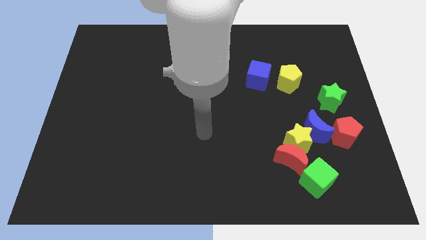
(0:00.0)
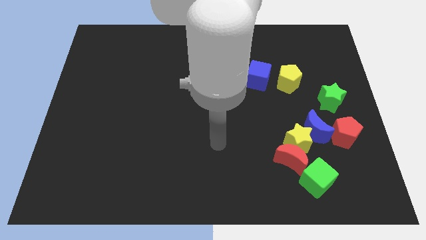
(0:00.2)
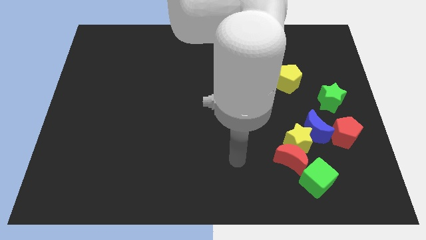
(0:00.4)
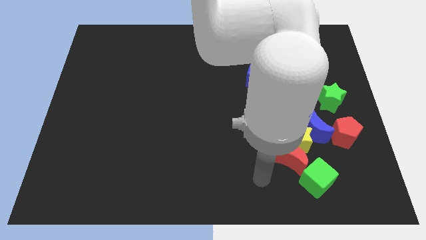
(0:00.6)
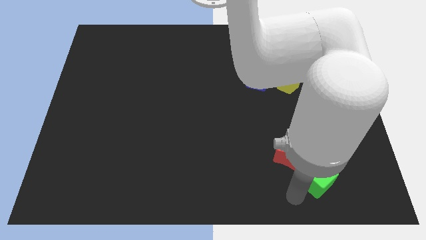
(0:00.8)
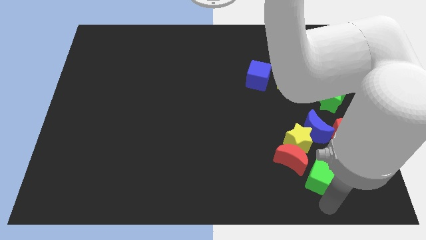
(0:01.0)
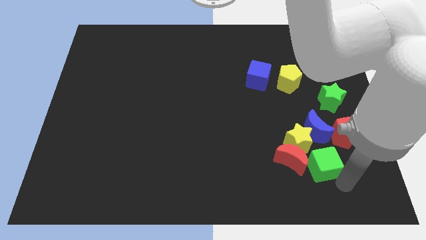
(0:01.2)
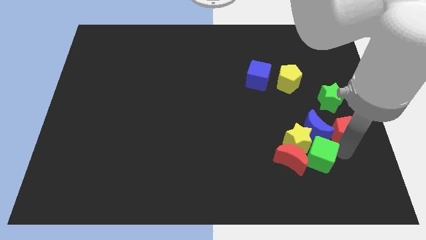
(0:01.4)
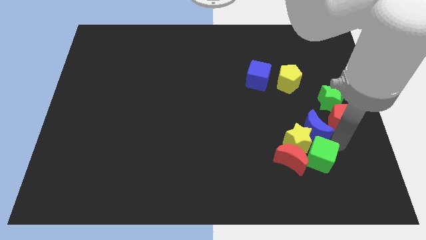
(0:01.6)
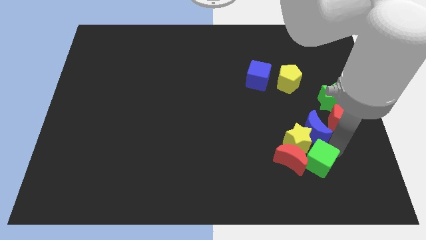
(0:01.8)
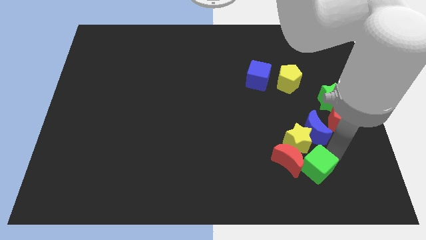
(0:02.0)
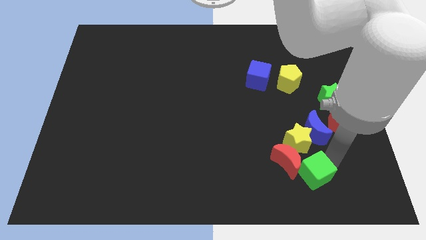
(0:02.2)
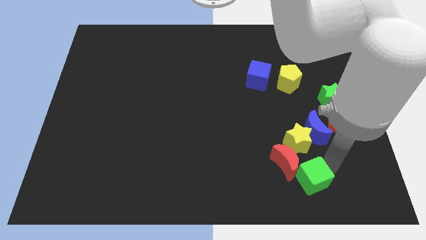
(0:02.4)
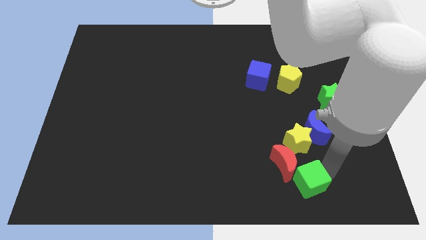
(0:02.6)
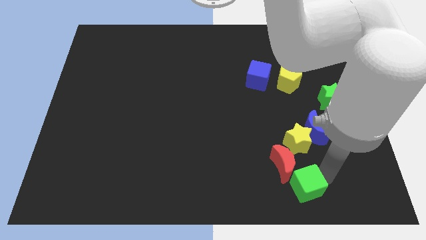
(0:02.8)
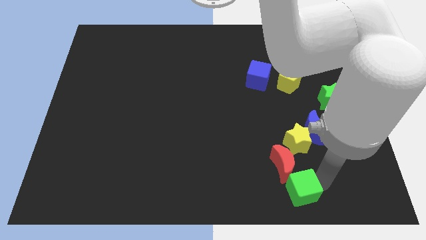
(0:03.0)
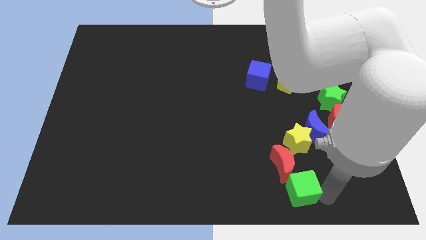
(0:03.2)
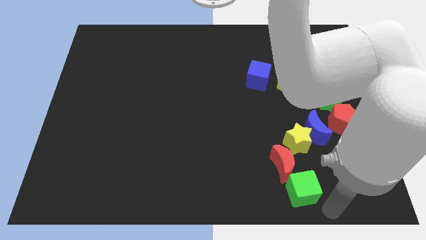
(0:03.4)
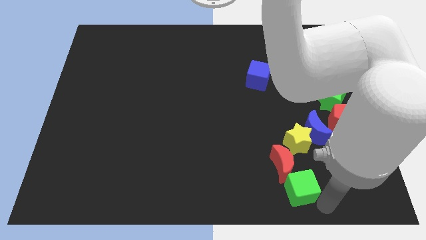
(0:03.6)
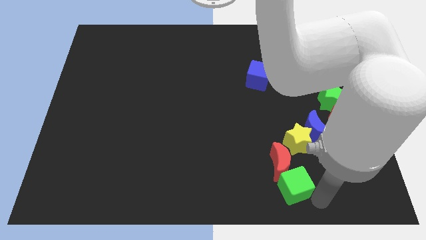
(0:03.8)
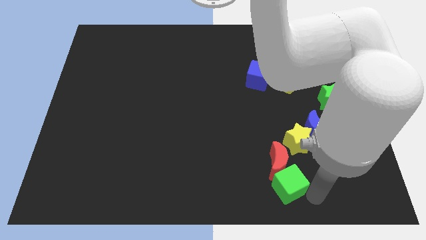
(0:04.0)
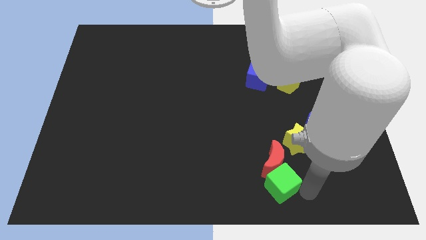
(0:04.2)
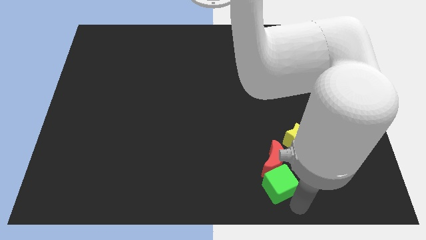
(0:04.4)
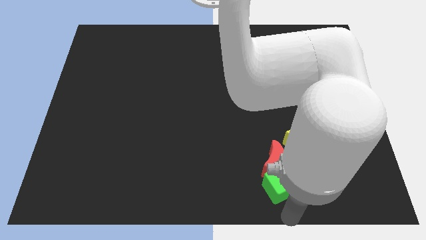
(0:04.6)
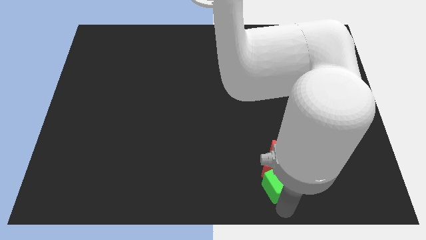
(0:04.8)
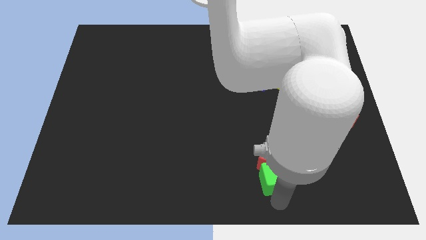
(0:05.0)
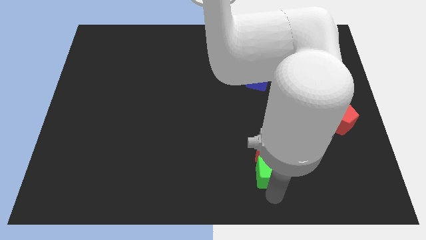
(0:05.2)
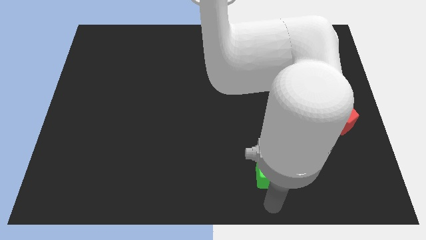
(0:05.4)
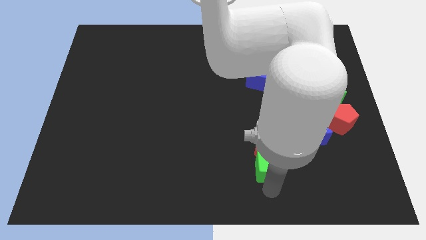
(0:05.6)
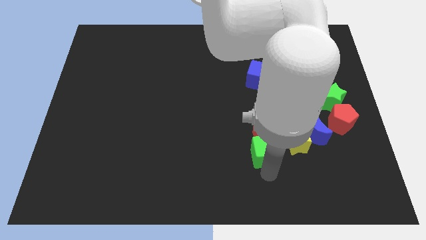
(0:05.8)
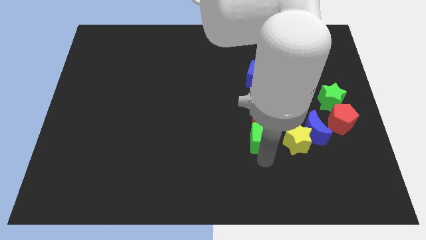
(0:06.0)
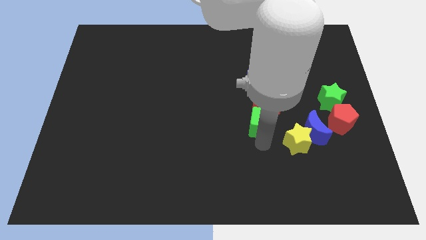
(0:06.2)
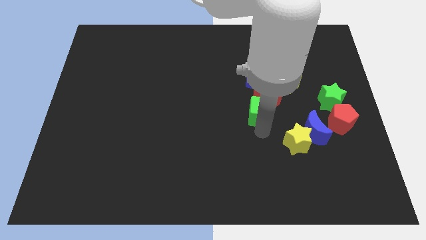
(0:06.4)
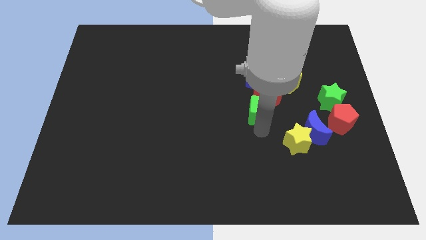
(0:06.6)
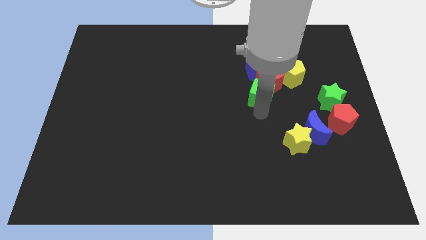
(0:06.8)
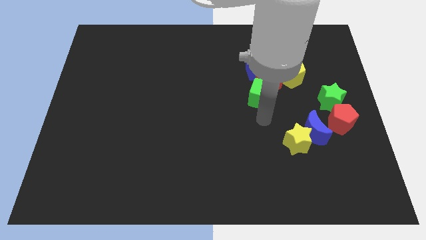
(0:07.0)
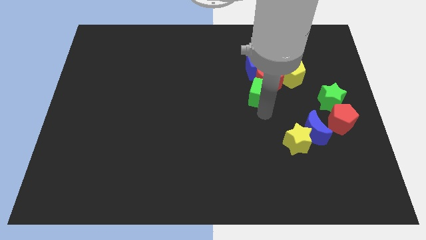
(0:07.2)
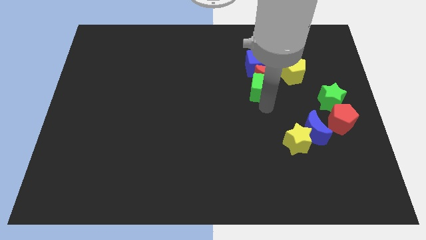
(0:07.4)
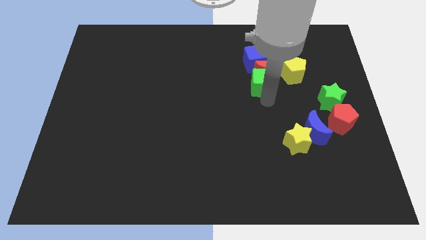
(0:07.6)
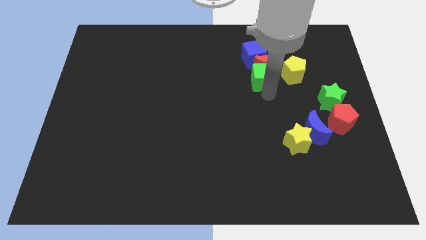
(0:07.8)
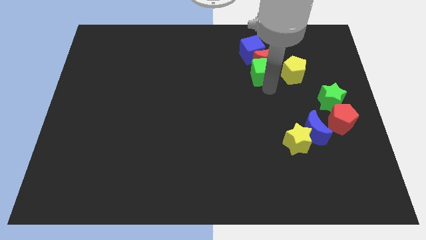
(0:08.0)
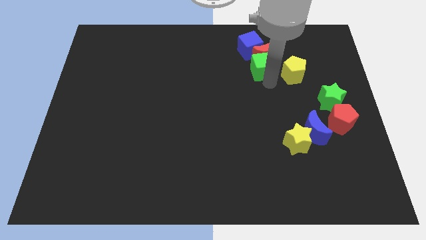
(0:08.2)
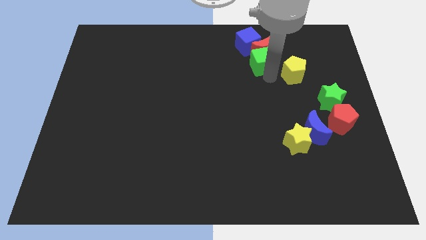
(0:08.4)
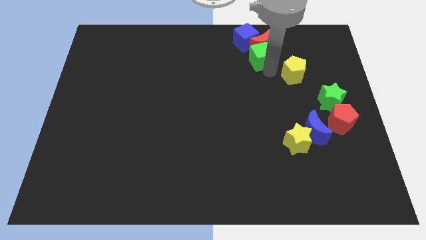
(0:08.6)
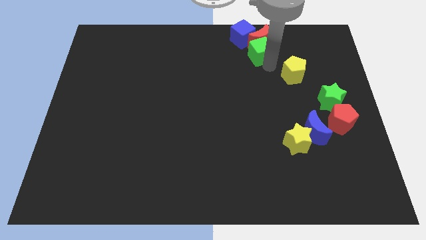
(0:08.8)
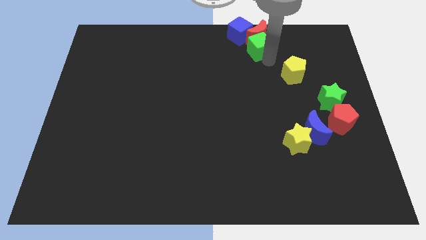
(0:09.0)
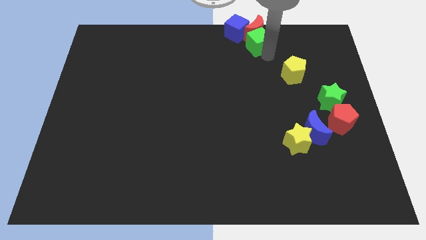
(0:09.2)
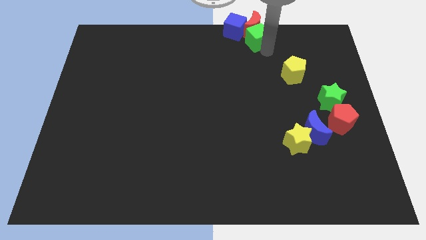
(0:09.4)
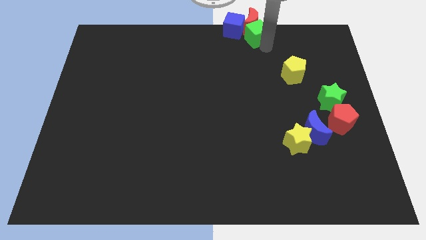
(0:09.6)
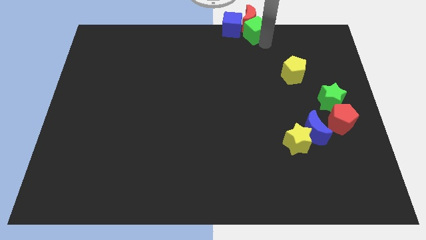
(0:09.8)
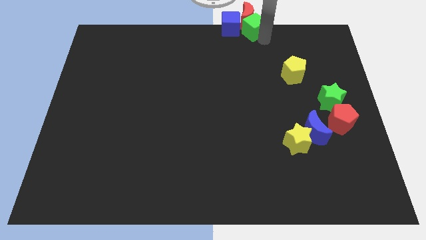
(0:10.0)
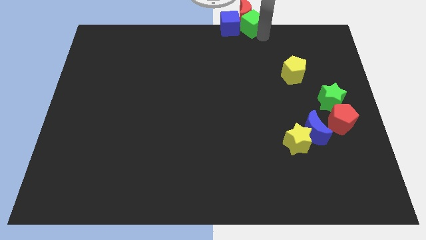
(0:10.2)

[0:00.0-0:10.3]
move the green cube to the blue cube

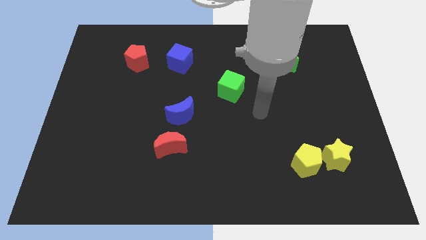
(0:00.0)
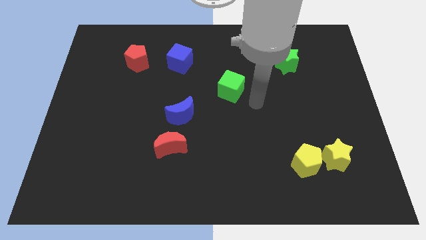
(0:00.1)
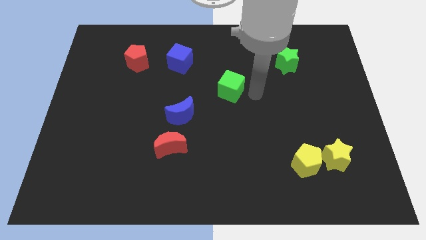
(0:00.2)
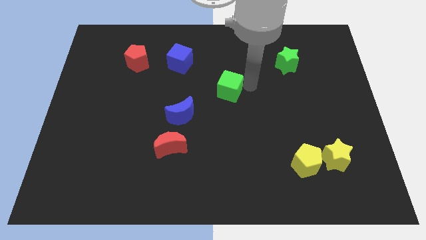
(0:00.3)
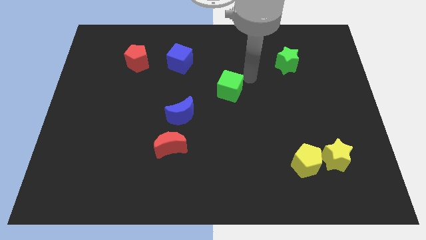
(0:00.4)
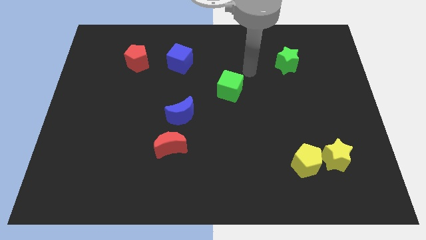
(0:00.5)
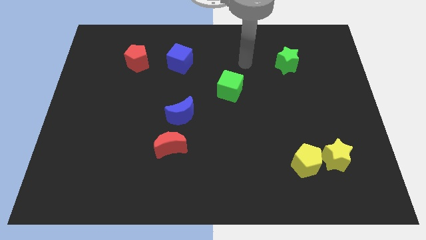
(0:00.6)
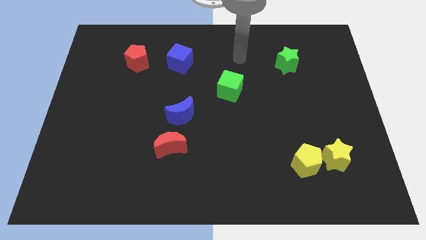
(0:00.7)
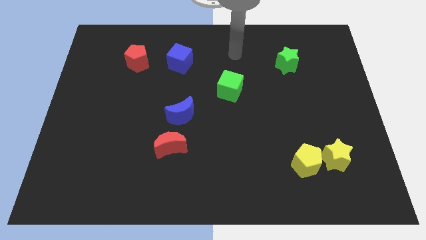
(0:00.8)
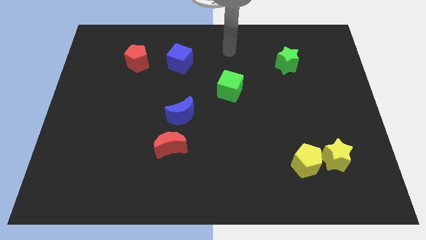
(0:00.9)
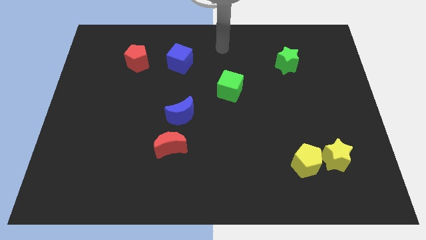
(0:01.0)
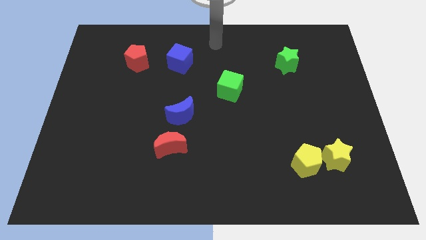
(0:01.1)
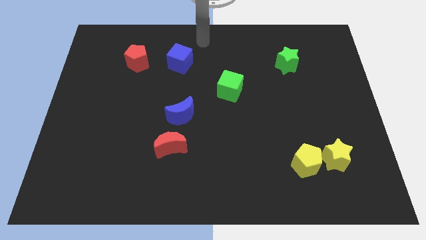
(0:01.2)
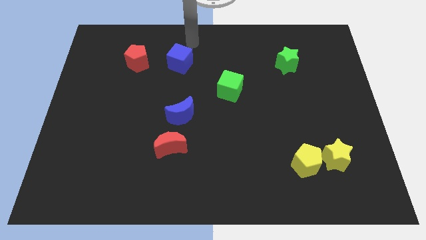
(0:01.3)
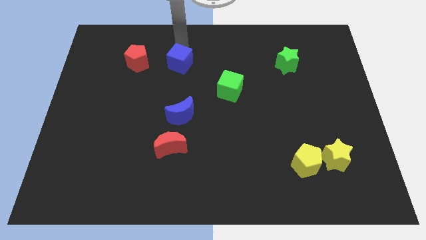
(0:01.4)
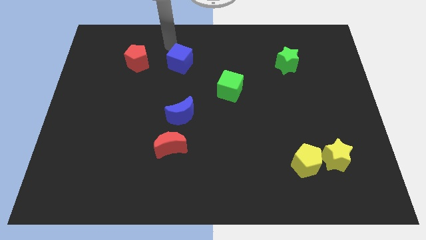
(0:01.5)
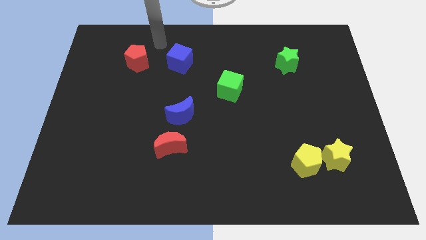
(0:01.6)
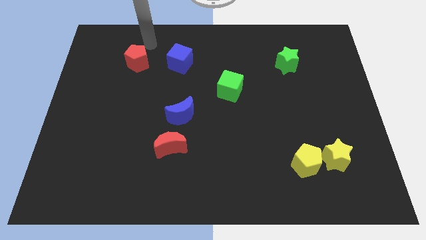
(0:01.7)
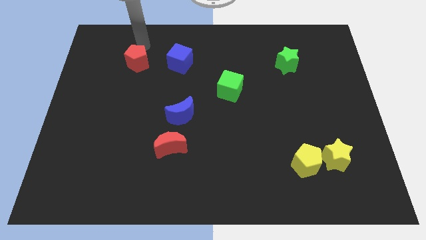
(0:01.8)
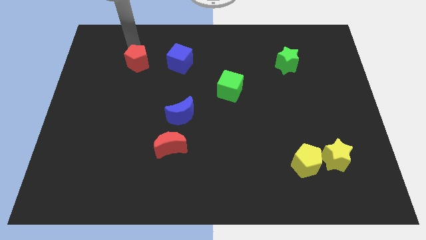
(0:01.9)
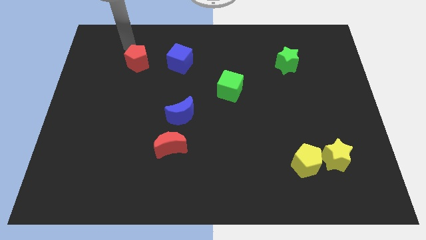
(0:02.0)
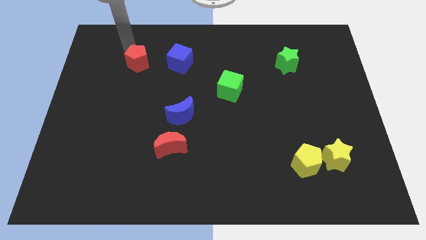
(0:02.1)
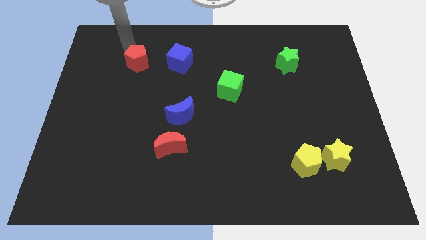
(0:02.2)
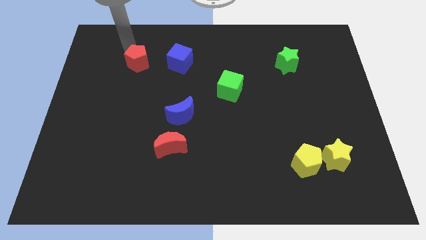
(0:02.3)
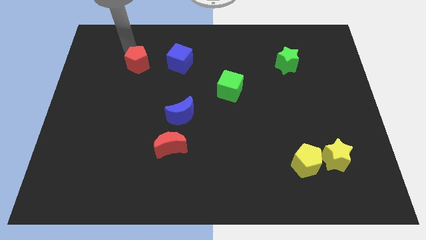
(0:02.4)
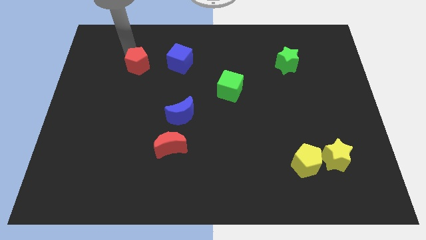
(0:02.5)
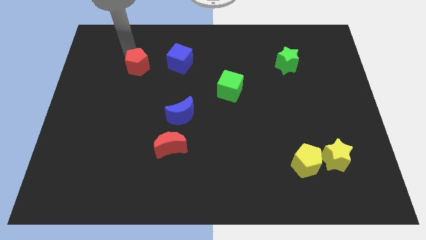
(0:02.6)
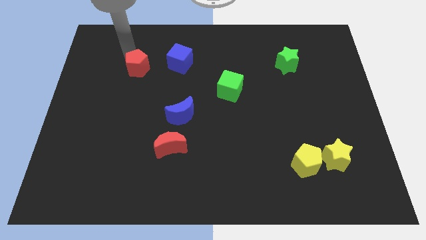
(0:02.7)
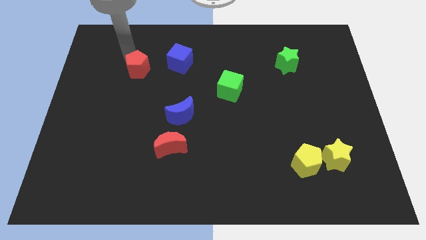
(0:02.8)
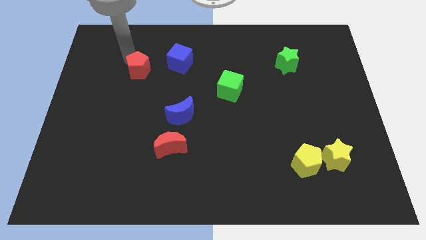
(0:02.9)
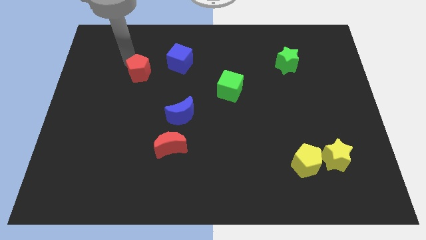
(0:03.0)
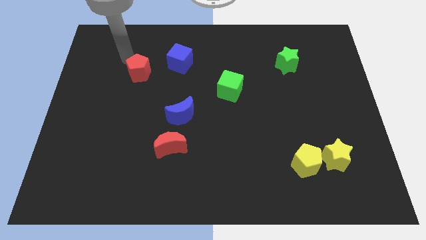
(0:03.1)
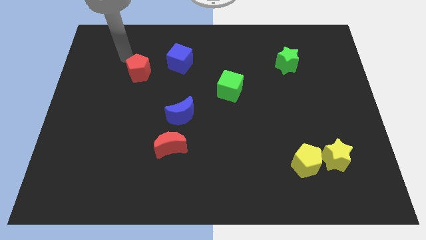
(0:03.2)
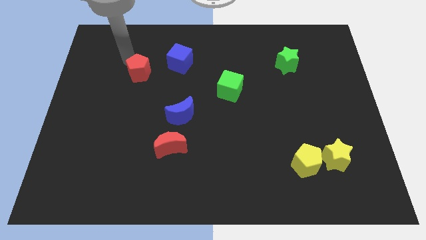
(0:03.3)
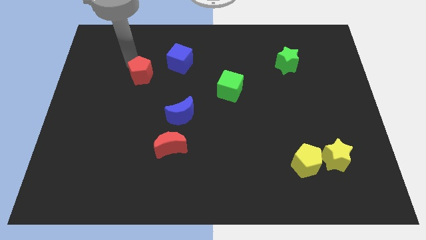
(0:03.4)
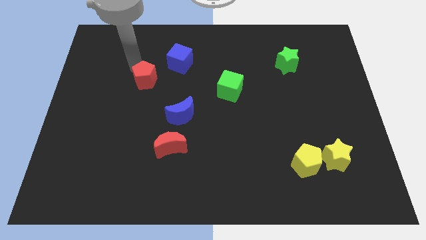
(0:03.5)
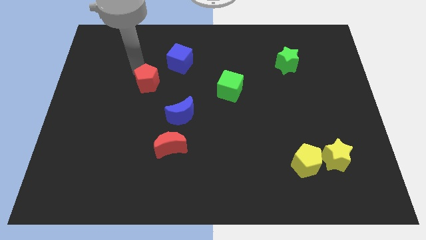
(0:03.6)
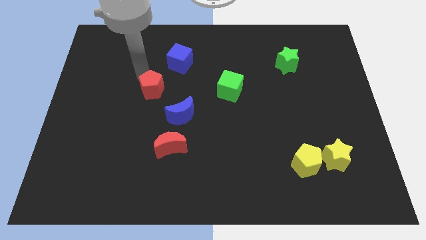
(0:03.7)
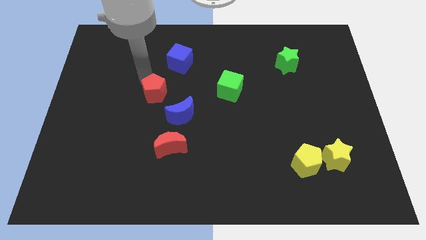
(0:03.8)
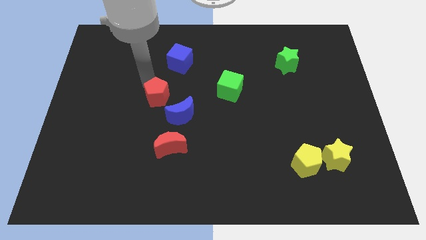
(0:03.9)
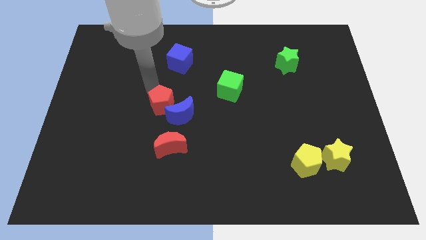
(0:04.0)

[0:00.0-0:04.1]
move the red pentagon to the blue moon
